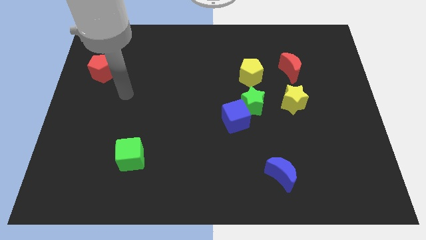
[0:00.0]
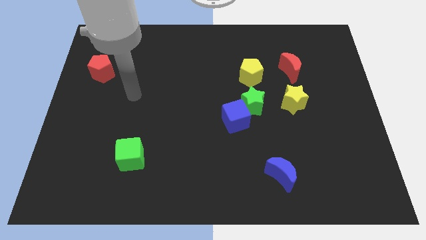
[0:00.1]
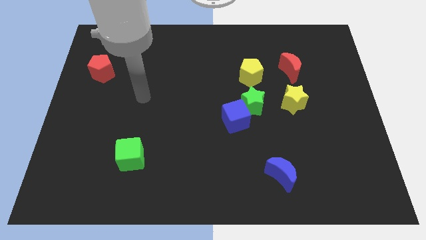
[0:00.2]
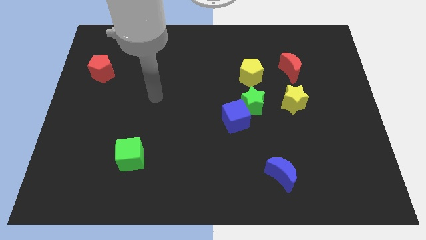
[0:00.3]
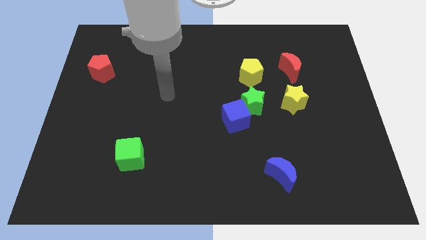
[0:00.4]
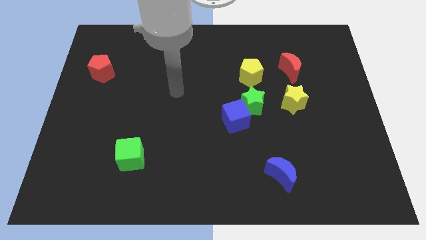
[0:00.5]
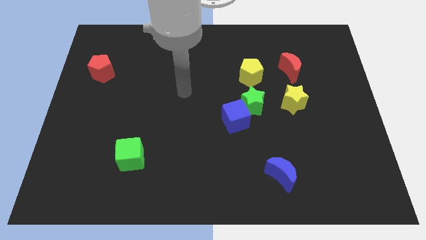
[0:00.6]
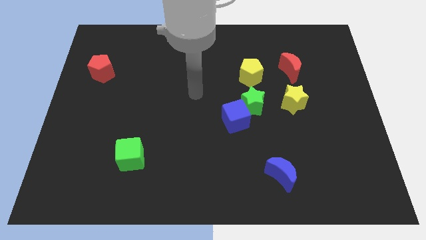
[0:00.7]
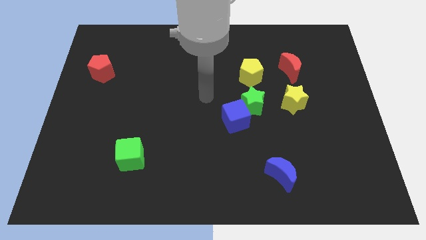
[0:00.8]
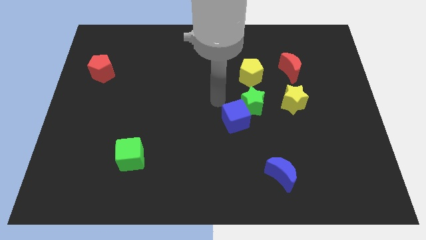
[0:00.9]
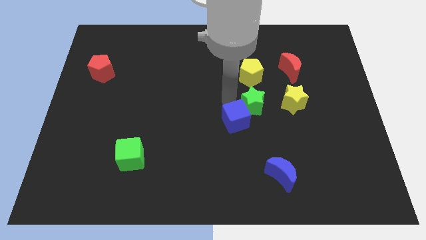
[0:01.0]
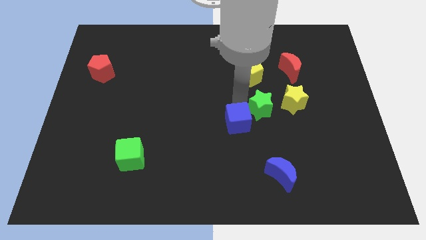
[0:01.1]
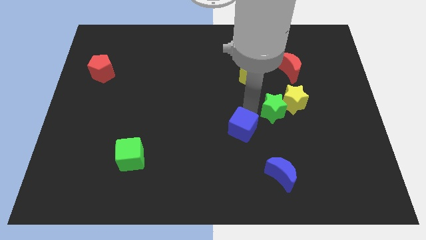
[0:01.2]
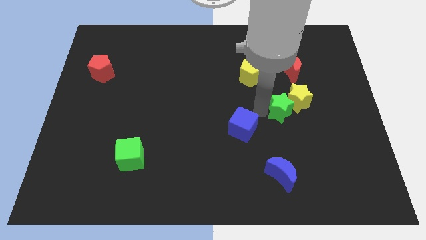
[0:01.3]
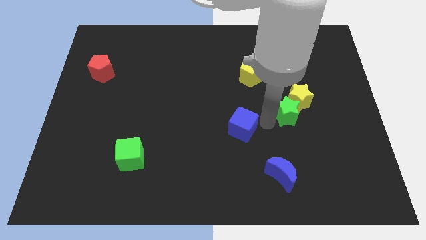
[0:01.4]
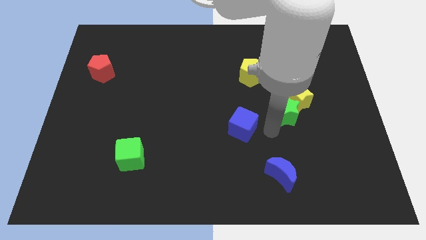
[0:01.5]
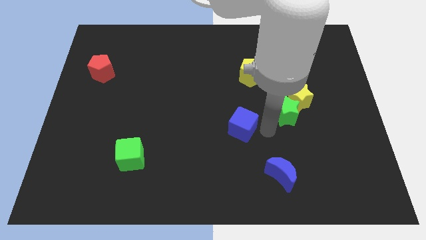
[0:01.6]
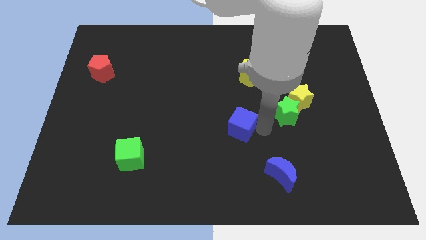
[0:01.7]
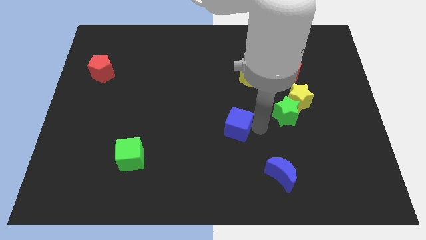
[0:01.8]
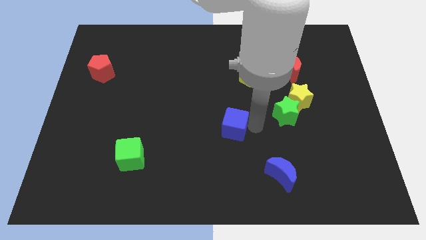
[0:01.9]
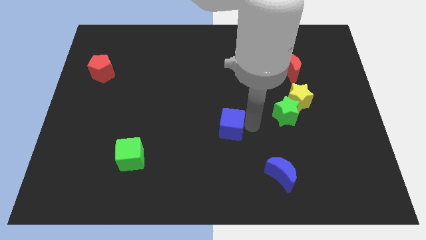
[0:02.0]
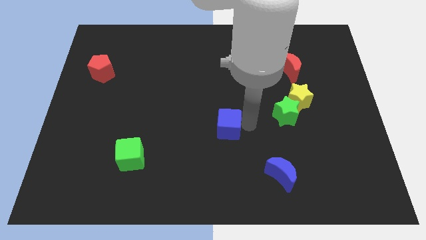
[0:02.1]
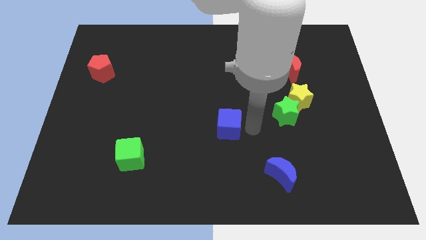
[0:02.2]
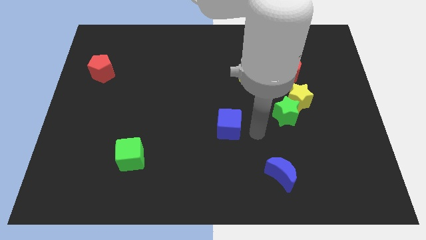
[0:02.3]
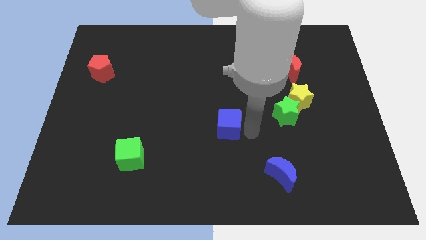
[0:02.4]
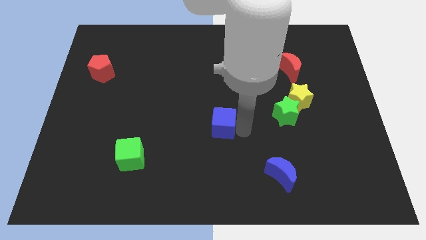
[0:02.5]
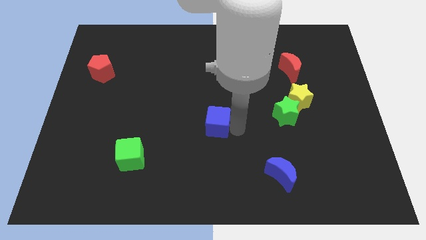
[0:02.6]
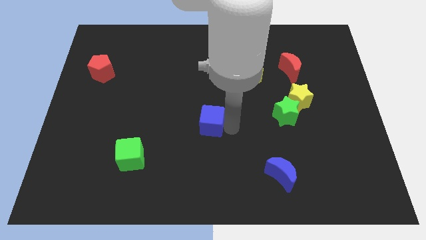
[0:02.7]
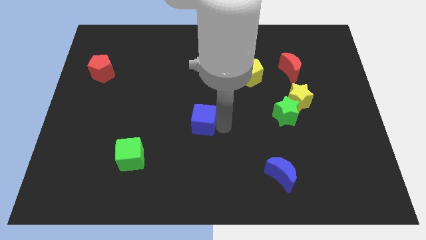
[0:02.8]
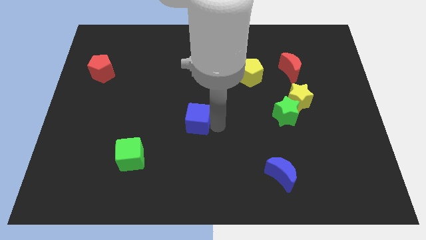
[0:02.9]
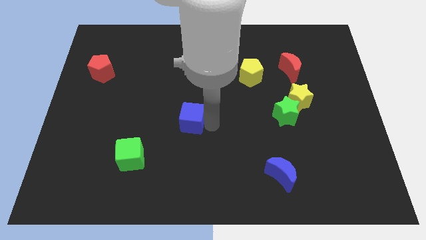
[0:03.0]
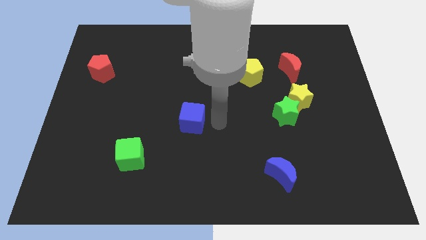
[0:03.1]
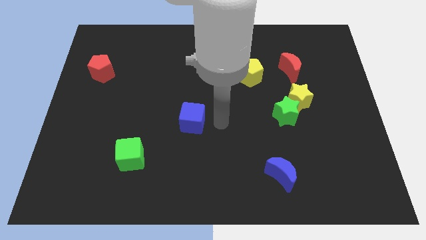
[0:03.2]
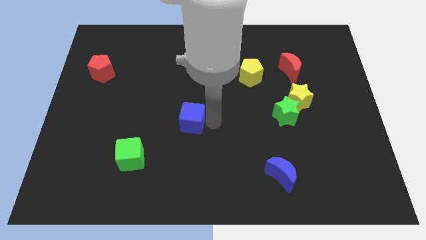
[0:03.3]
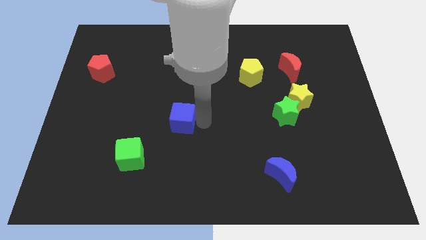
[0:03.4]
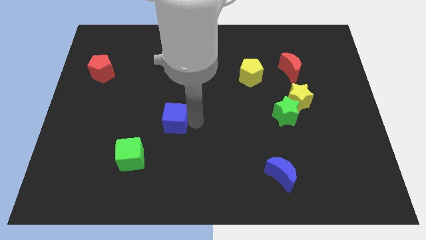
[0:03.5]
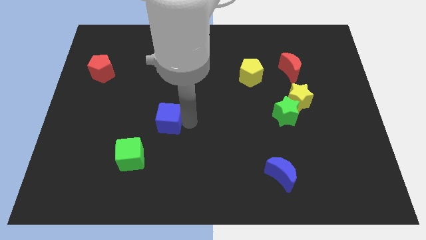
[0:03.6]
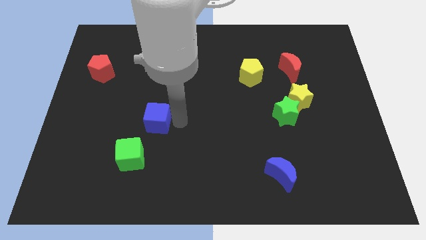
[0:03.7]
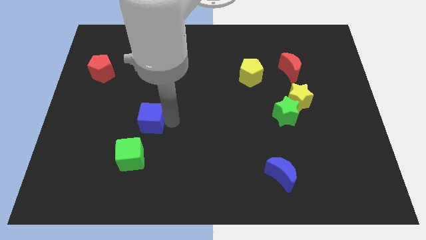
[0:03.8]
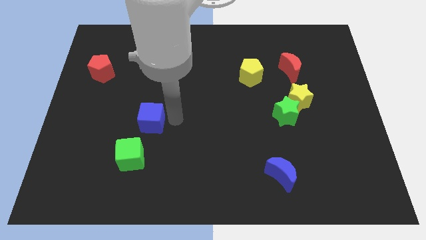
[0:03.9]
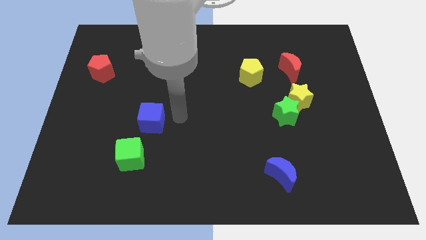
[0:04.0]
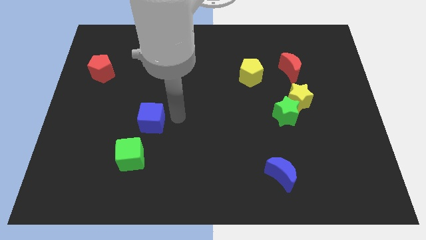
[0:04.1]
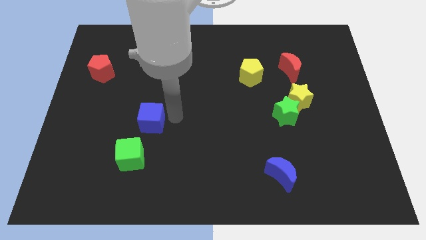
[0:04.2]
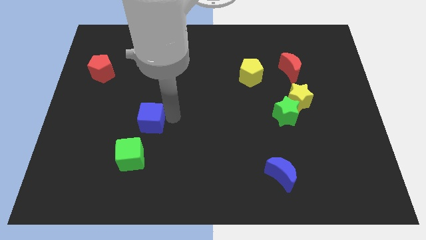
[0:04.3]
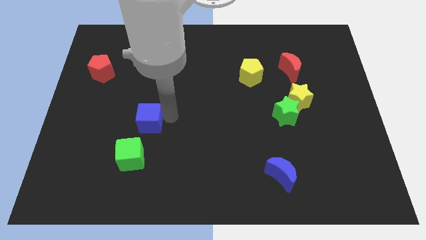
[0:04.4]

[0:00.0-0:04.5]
move the blue cube left

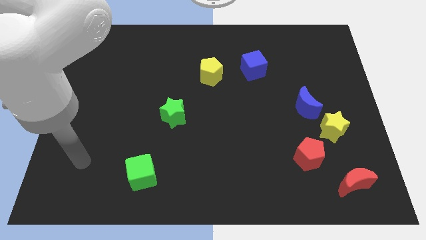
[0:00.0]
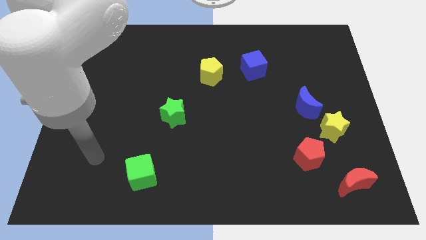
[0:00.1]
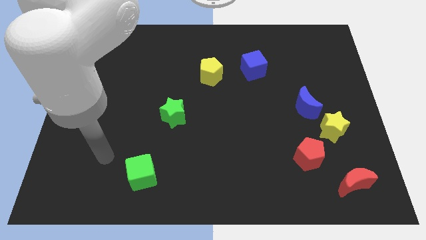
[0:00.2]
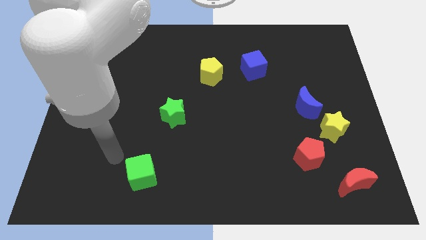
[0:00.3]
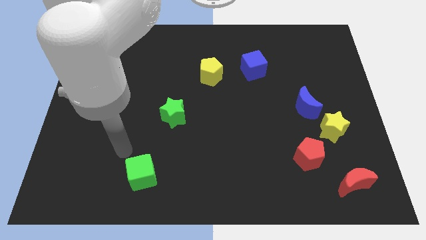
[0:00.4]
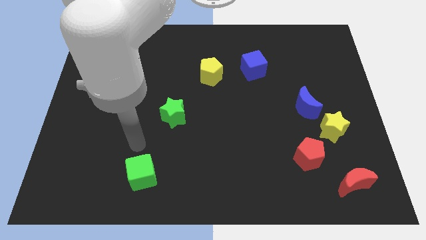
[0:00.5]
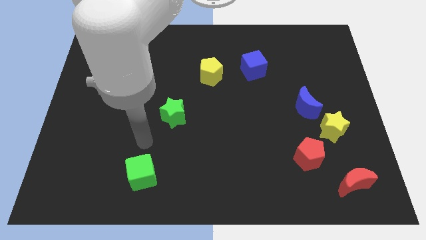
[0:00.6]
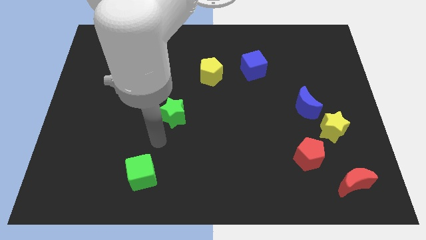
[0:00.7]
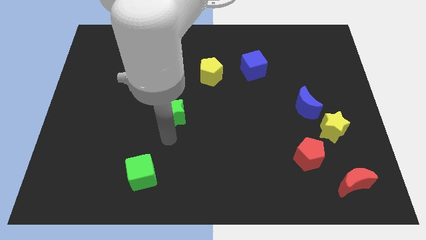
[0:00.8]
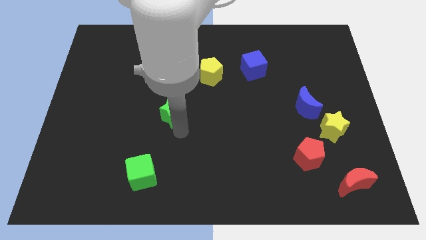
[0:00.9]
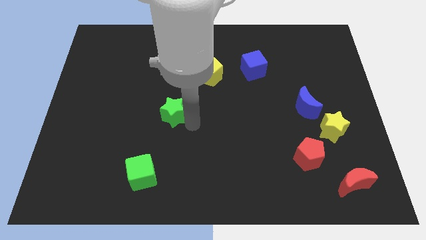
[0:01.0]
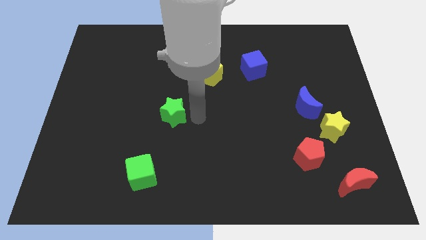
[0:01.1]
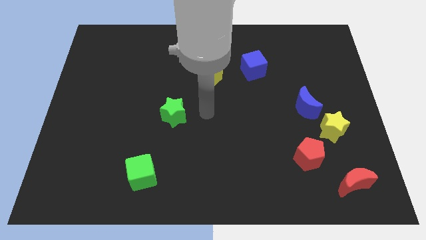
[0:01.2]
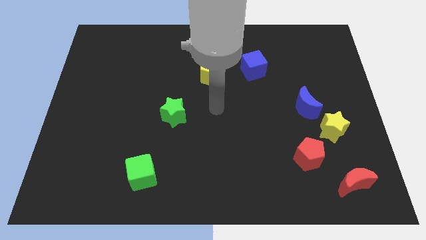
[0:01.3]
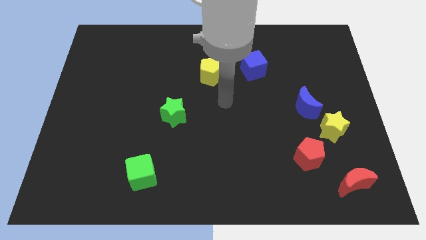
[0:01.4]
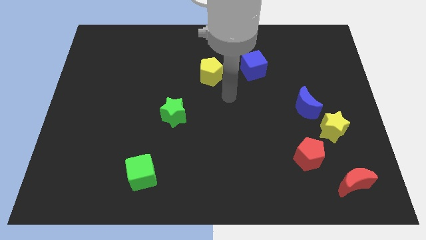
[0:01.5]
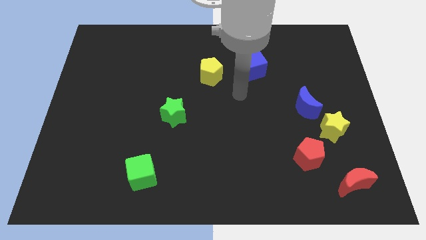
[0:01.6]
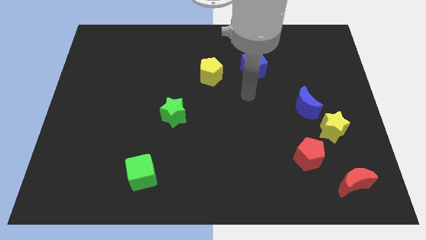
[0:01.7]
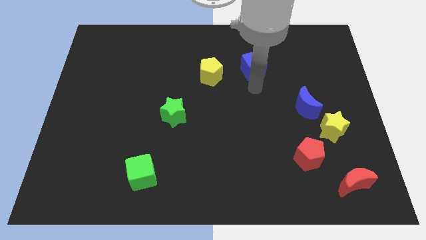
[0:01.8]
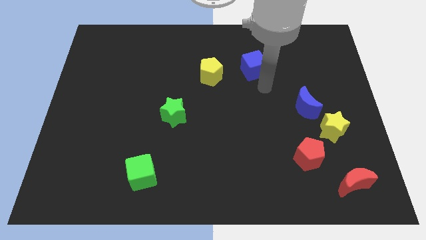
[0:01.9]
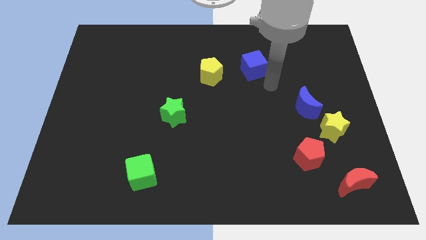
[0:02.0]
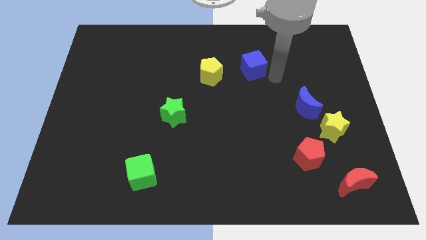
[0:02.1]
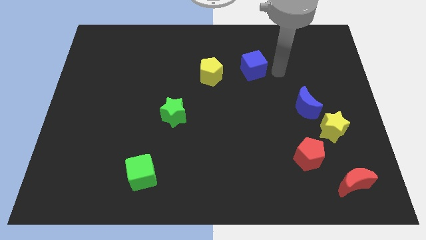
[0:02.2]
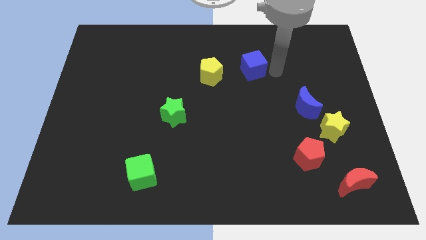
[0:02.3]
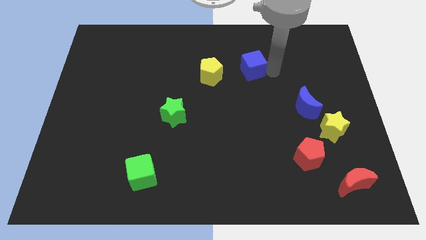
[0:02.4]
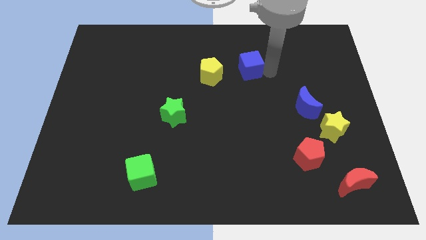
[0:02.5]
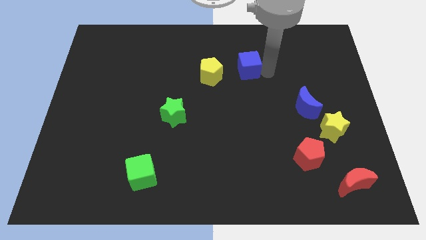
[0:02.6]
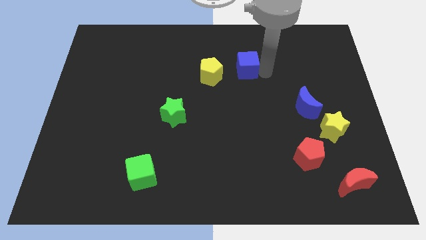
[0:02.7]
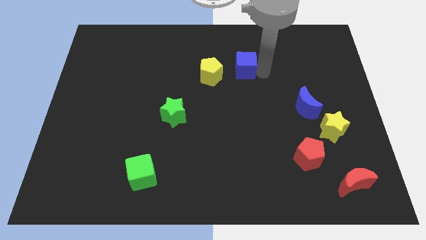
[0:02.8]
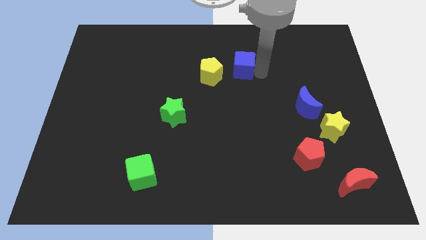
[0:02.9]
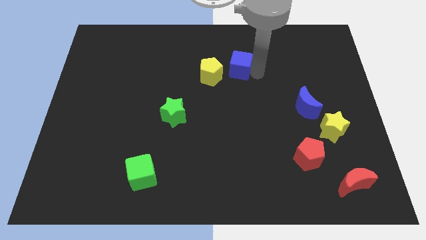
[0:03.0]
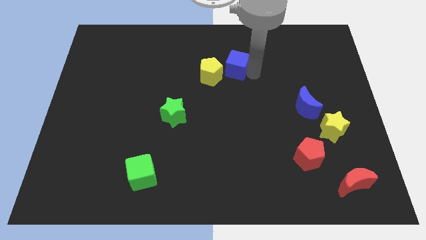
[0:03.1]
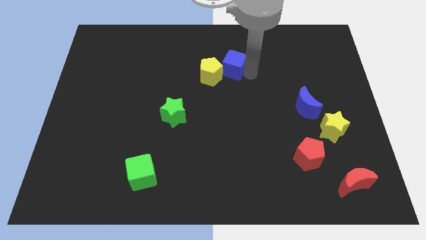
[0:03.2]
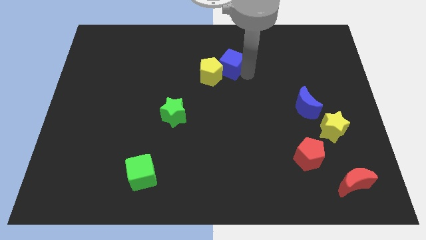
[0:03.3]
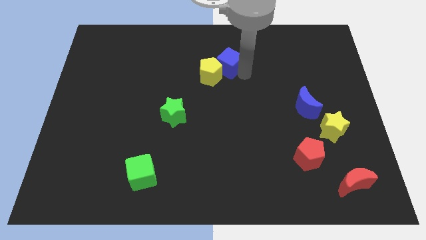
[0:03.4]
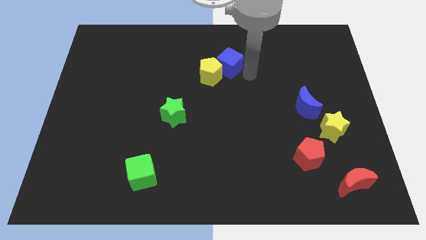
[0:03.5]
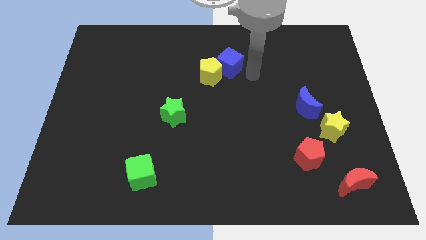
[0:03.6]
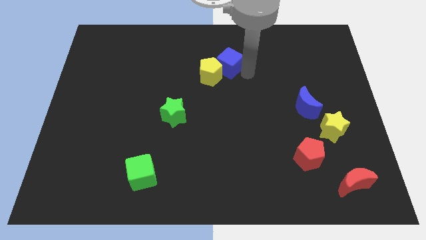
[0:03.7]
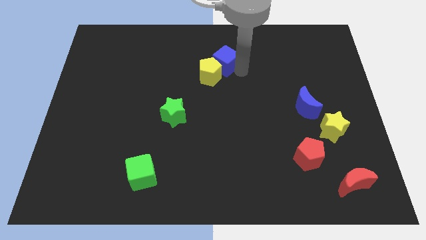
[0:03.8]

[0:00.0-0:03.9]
push the blue cube somewhat to the left
